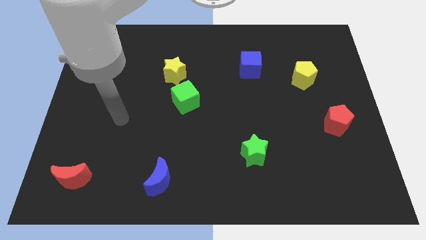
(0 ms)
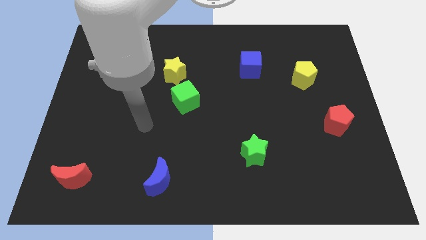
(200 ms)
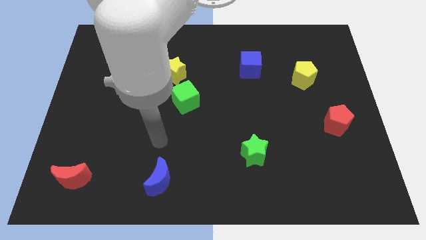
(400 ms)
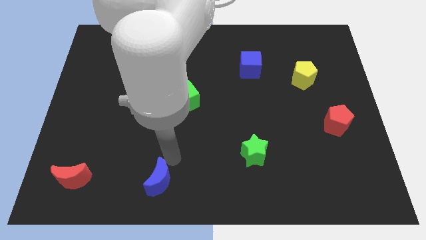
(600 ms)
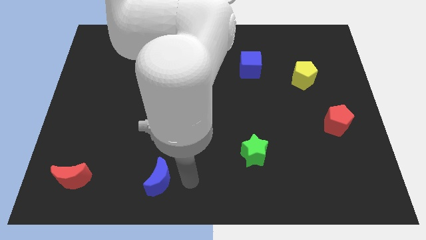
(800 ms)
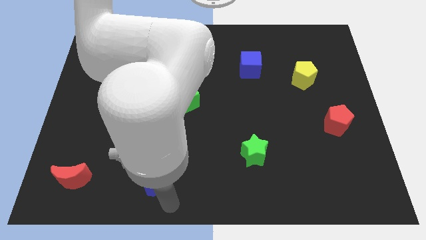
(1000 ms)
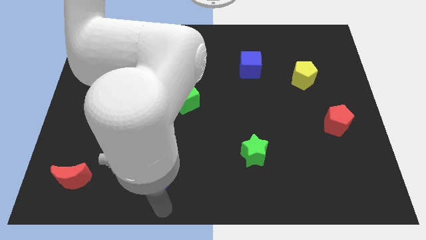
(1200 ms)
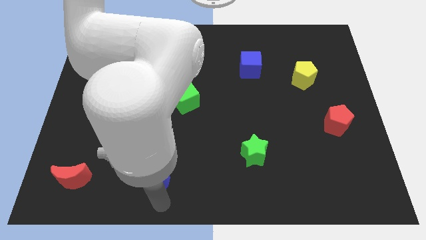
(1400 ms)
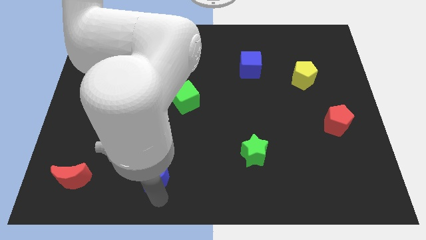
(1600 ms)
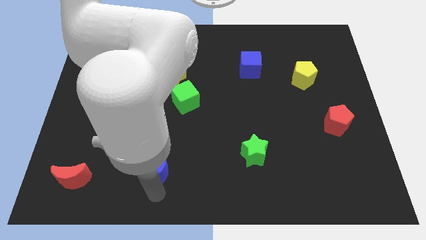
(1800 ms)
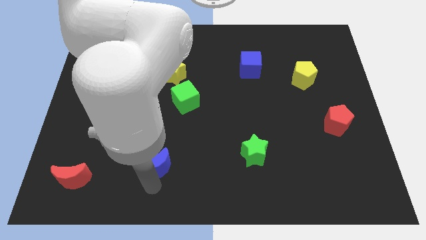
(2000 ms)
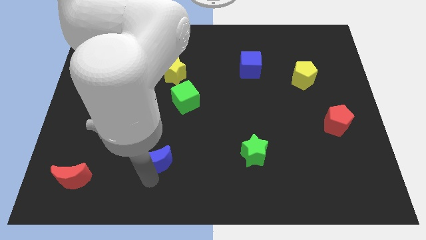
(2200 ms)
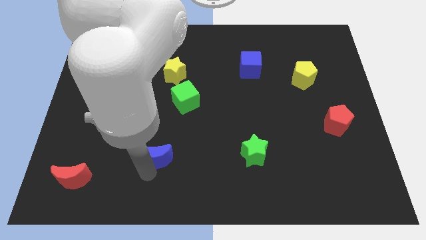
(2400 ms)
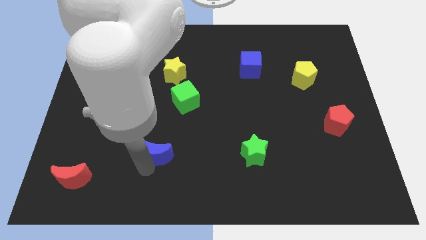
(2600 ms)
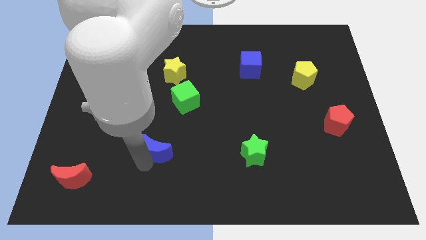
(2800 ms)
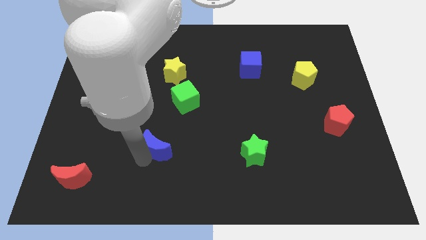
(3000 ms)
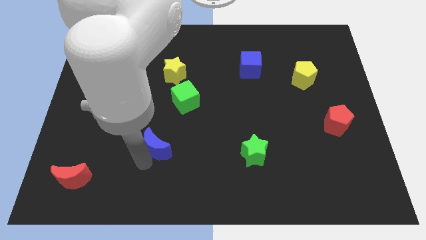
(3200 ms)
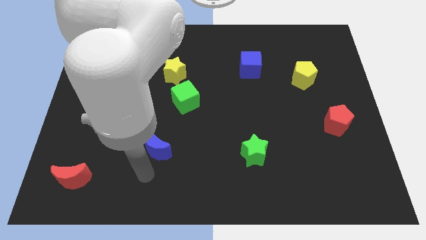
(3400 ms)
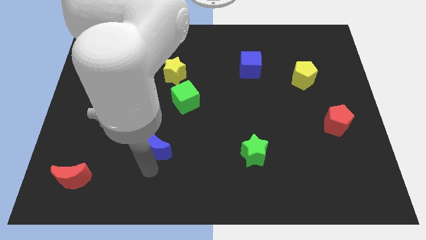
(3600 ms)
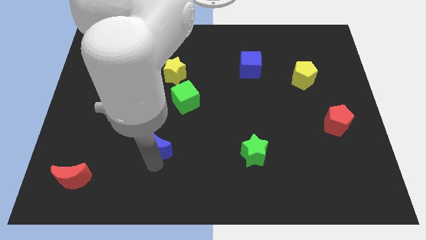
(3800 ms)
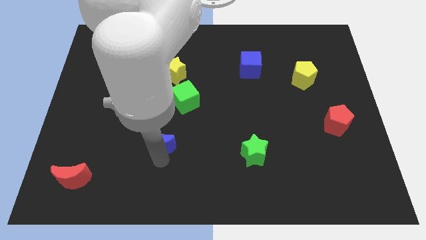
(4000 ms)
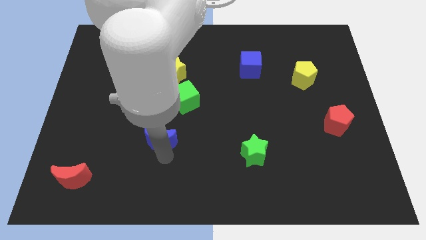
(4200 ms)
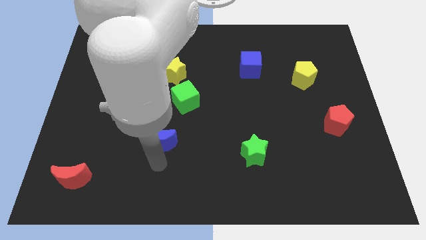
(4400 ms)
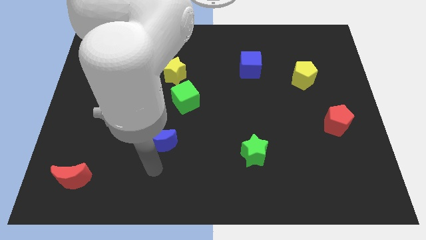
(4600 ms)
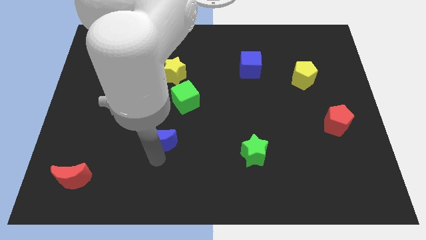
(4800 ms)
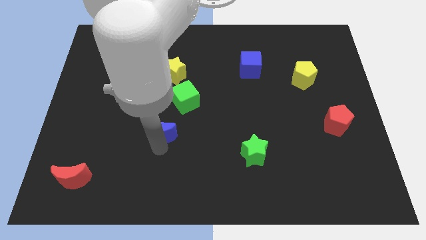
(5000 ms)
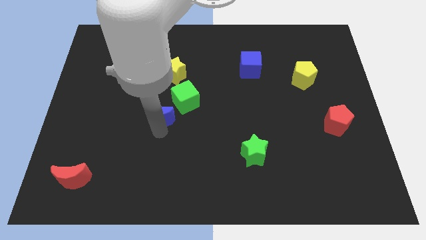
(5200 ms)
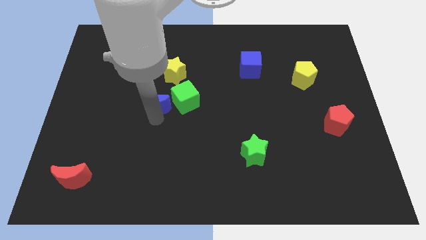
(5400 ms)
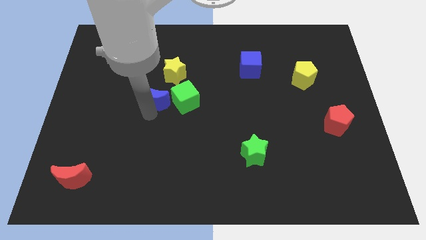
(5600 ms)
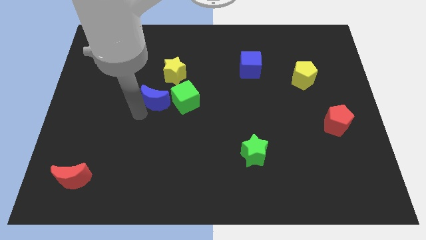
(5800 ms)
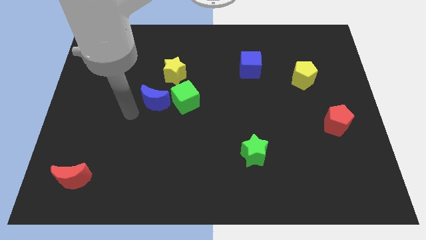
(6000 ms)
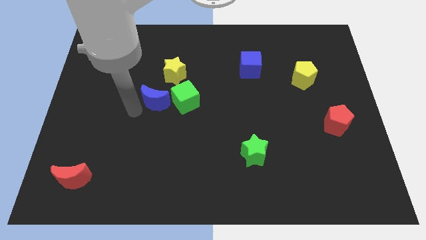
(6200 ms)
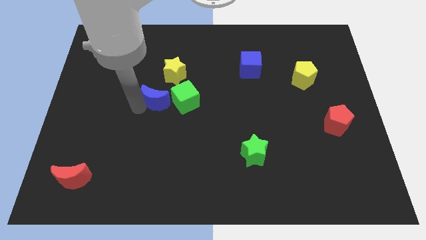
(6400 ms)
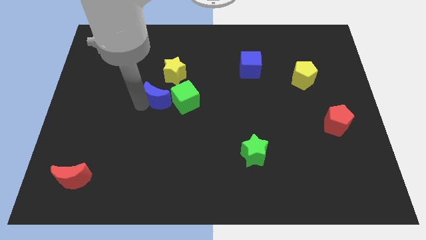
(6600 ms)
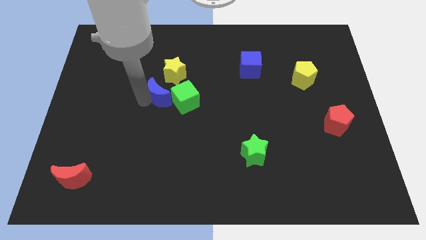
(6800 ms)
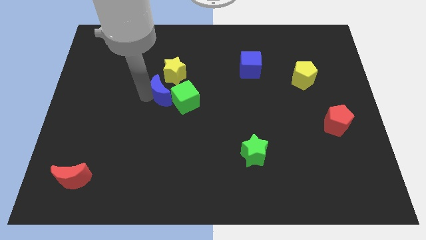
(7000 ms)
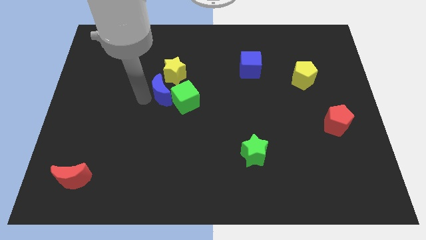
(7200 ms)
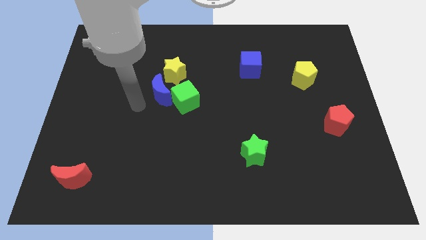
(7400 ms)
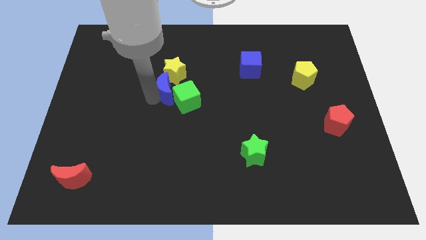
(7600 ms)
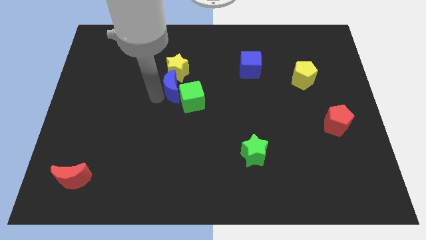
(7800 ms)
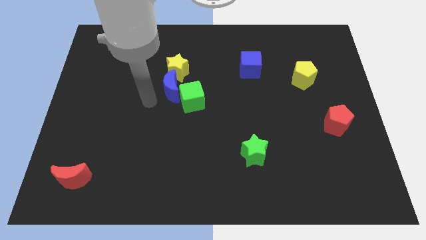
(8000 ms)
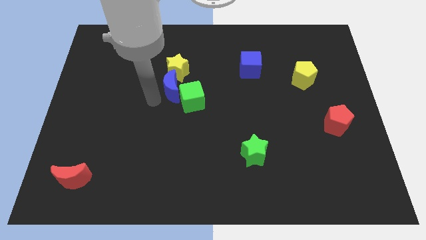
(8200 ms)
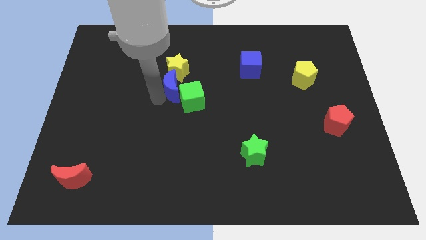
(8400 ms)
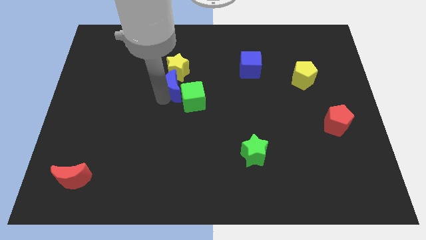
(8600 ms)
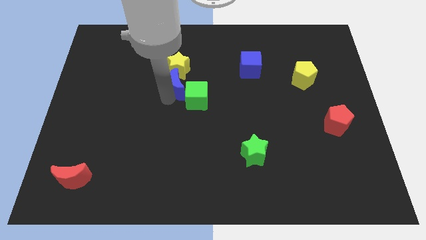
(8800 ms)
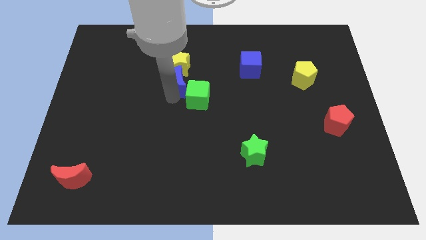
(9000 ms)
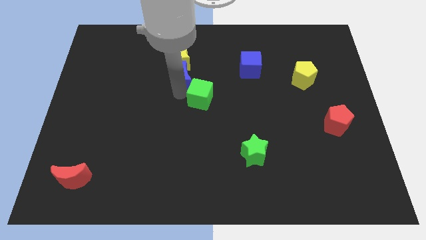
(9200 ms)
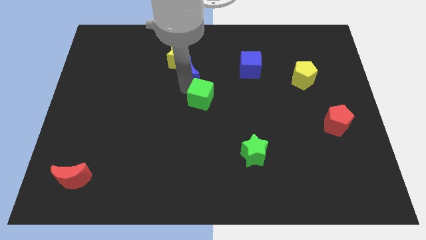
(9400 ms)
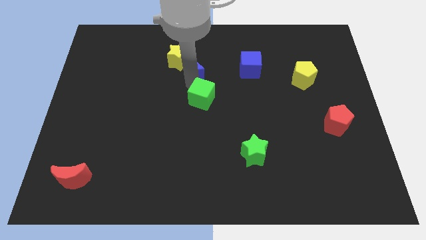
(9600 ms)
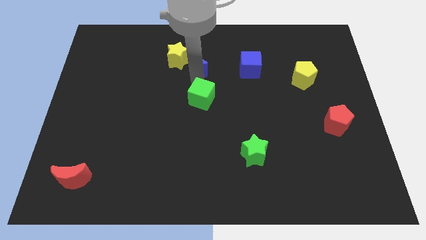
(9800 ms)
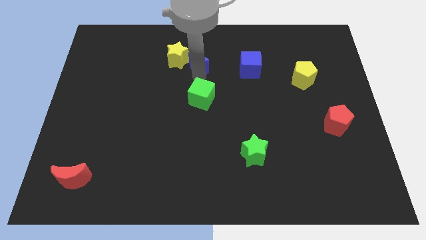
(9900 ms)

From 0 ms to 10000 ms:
push the blue moon to the top right of the yellow star

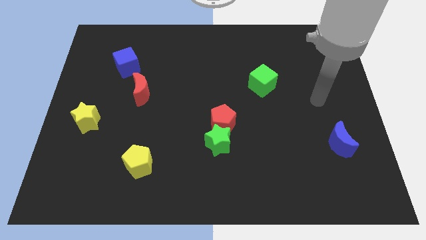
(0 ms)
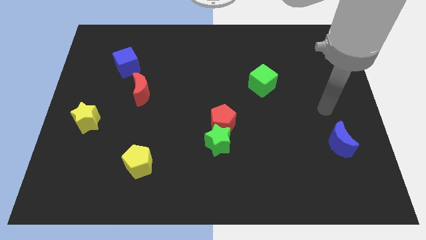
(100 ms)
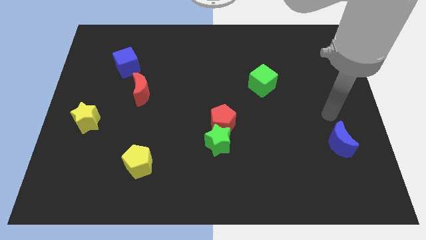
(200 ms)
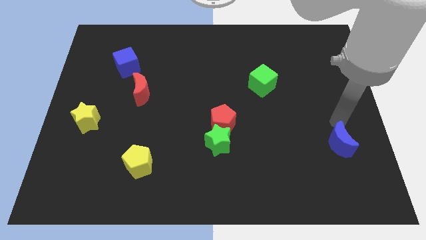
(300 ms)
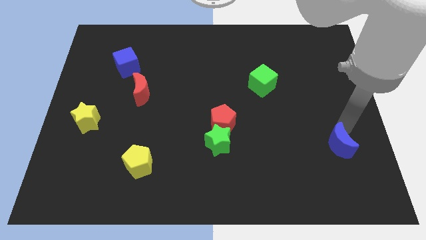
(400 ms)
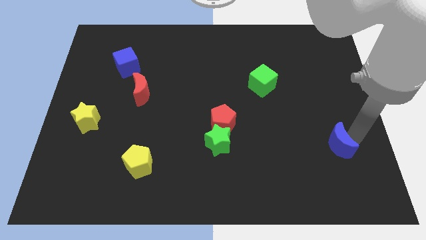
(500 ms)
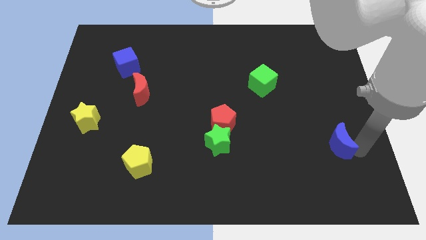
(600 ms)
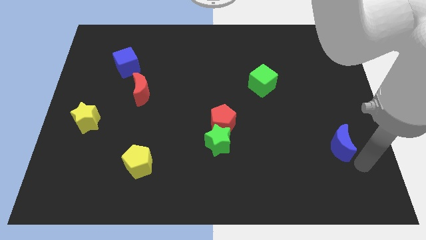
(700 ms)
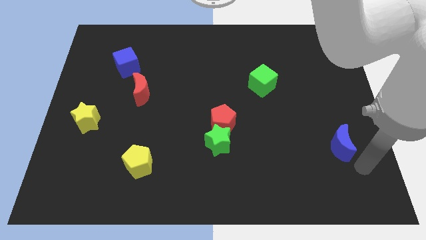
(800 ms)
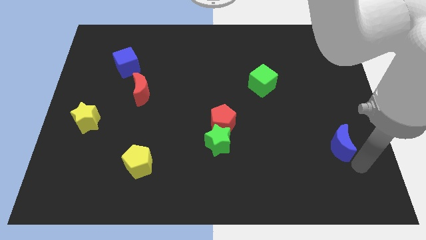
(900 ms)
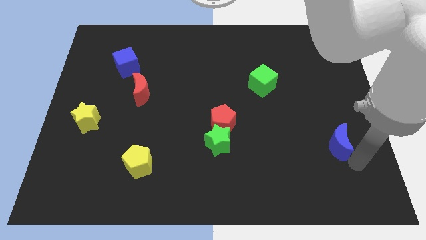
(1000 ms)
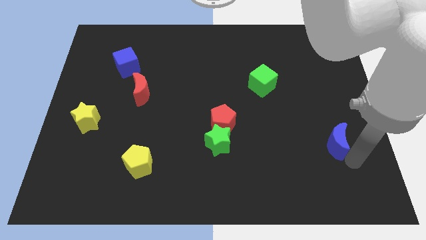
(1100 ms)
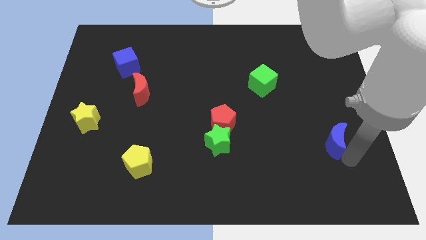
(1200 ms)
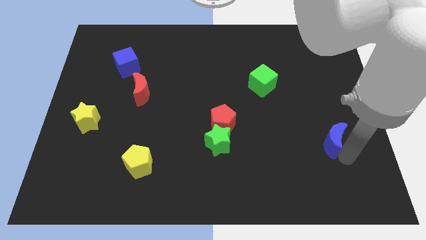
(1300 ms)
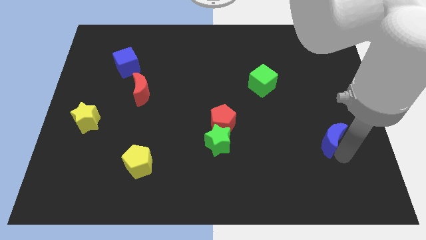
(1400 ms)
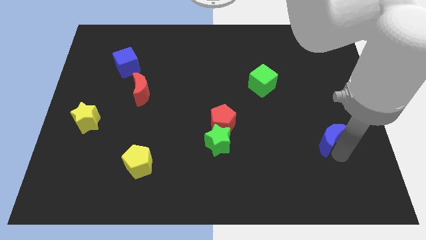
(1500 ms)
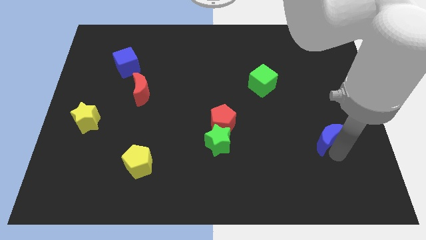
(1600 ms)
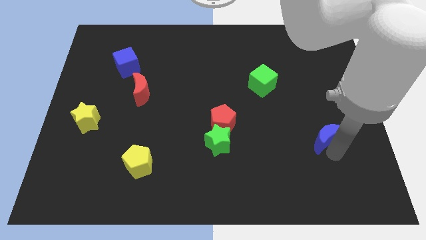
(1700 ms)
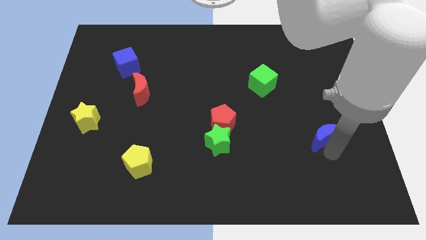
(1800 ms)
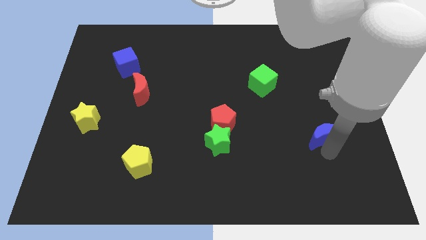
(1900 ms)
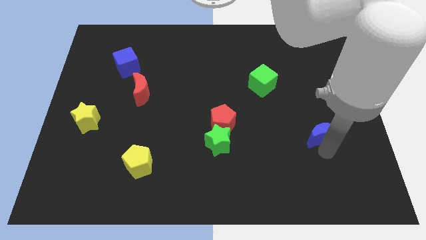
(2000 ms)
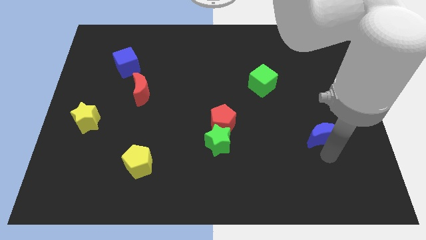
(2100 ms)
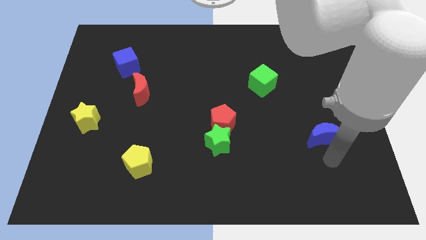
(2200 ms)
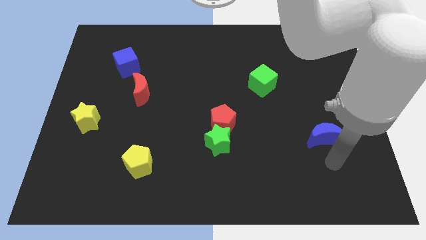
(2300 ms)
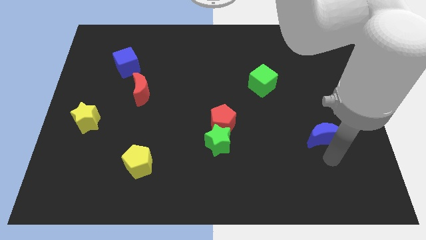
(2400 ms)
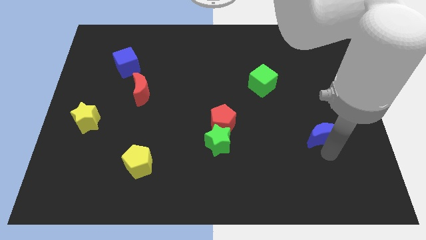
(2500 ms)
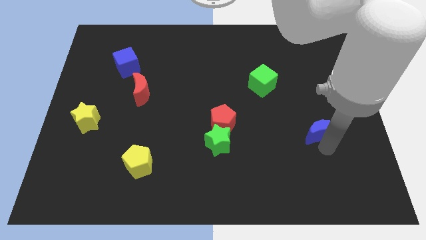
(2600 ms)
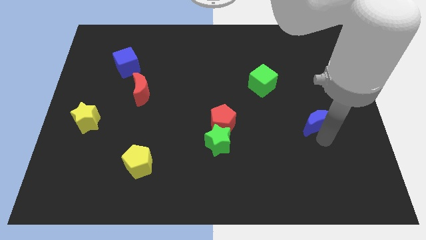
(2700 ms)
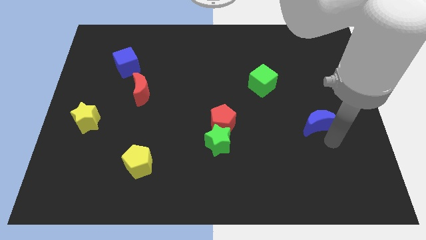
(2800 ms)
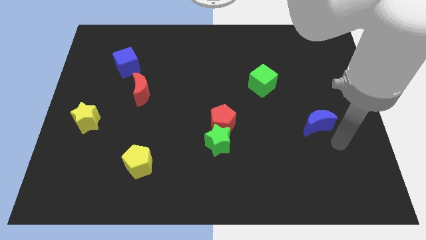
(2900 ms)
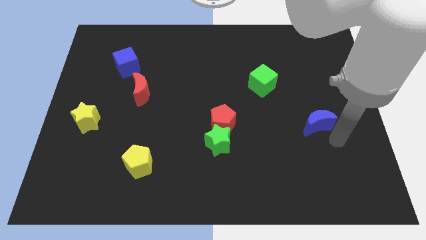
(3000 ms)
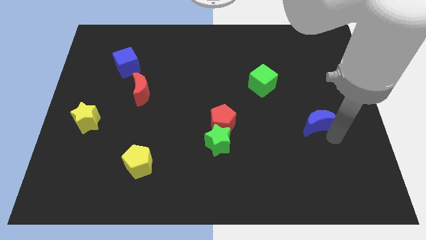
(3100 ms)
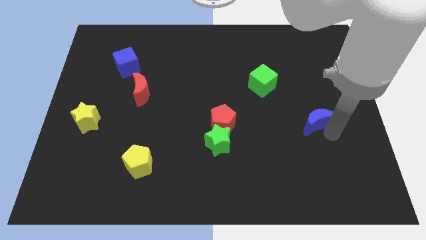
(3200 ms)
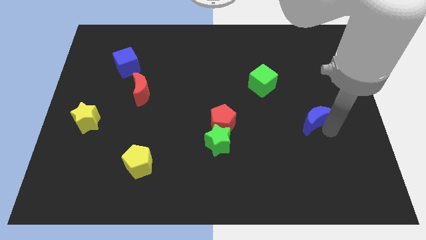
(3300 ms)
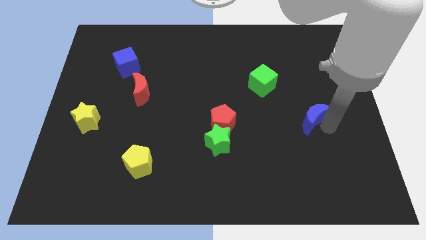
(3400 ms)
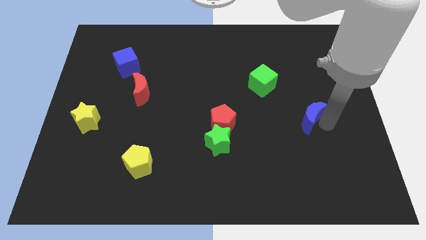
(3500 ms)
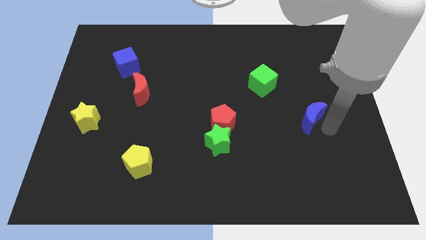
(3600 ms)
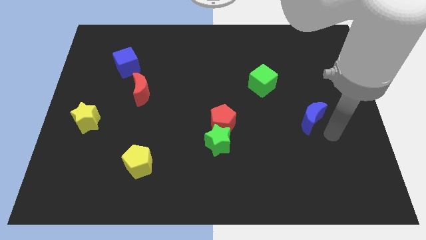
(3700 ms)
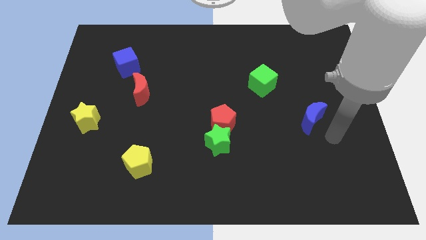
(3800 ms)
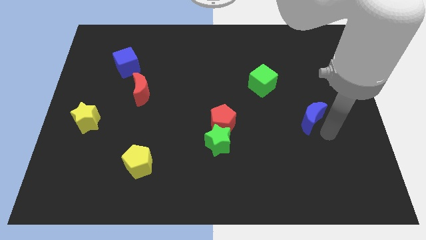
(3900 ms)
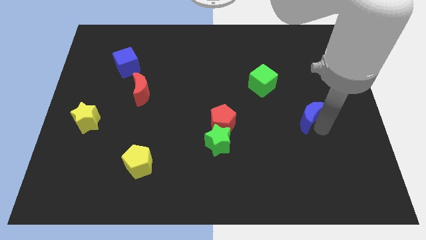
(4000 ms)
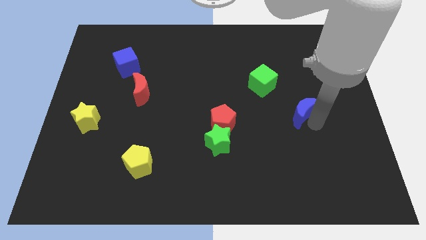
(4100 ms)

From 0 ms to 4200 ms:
put the blue moon to the bottom right side of the green cube
